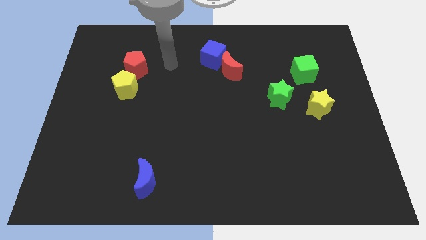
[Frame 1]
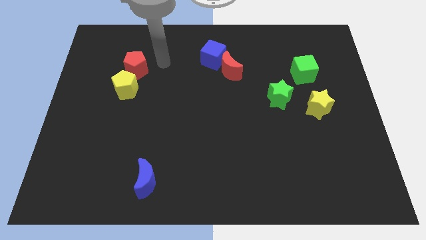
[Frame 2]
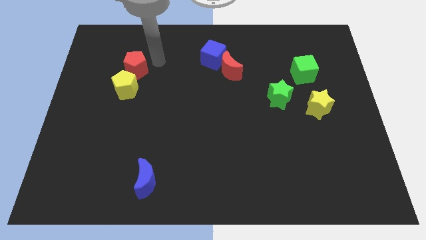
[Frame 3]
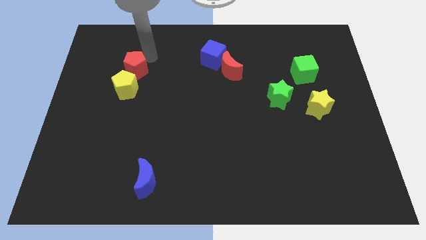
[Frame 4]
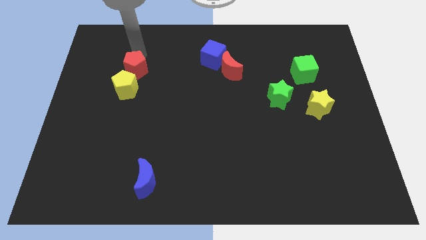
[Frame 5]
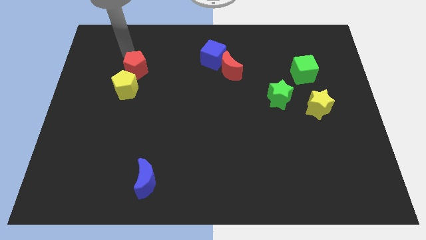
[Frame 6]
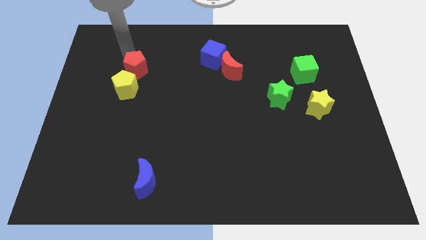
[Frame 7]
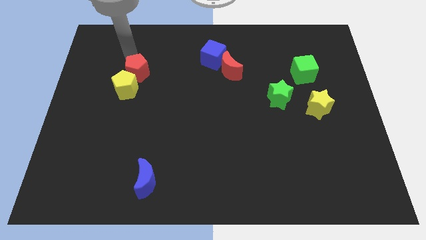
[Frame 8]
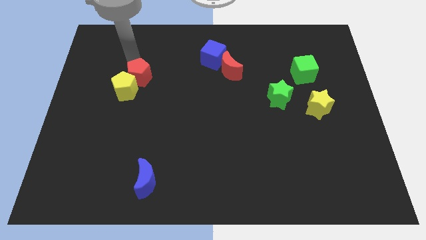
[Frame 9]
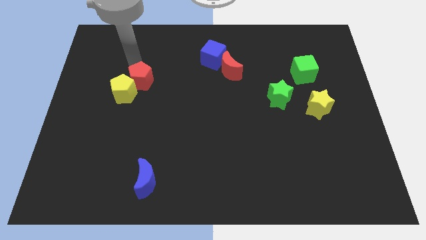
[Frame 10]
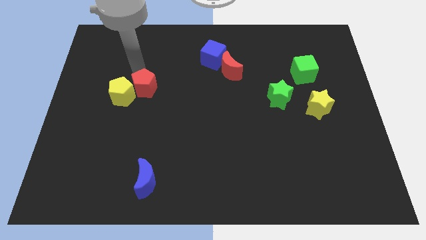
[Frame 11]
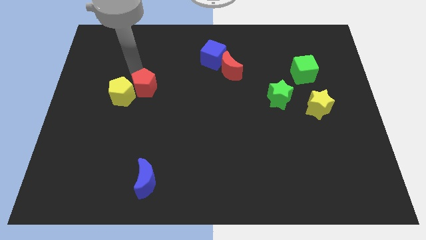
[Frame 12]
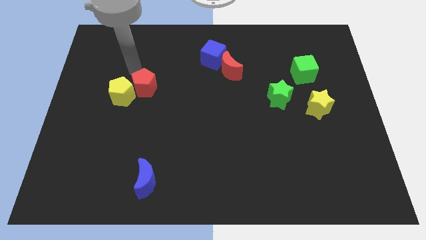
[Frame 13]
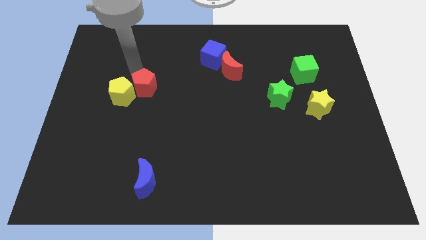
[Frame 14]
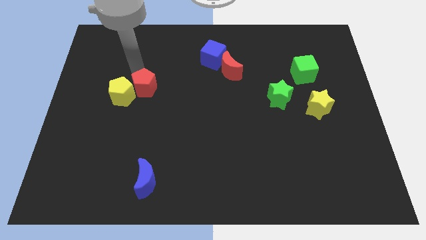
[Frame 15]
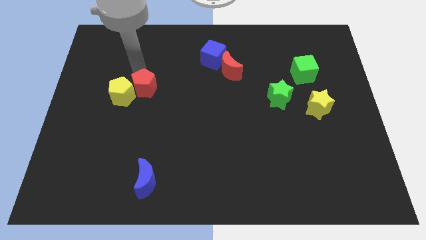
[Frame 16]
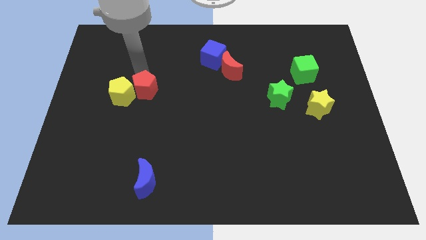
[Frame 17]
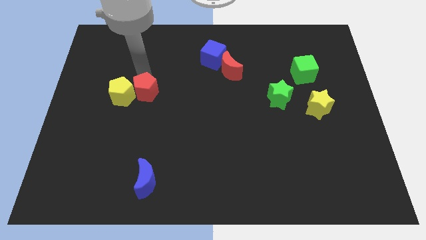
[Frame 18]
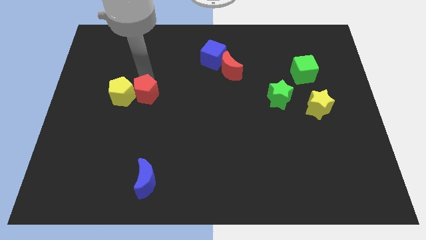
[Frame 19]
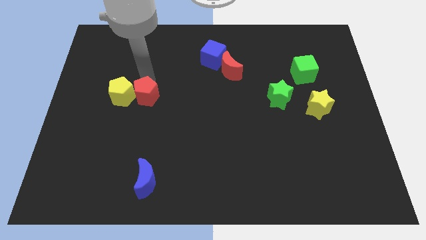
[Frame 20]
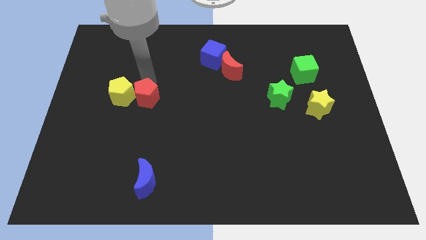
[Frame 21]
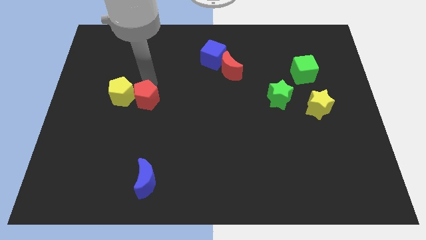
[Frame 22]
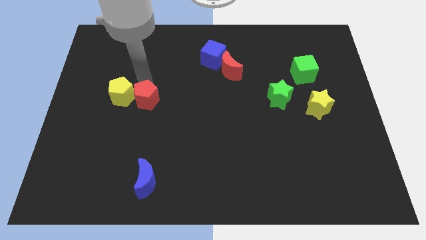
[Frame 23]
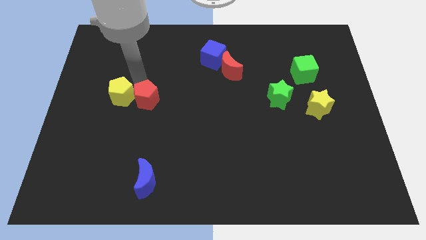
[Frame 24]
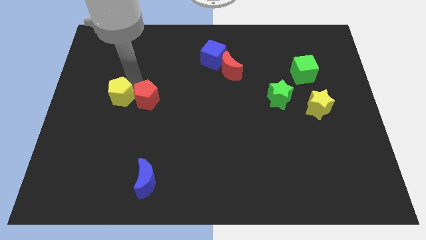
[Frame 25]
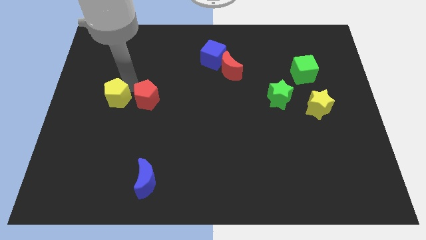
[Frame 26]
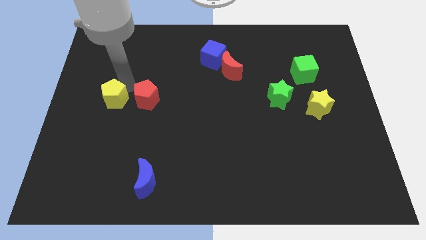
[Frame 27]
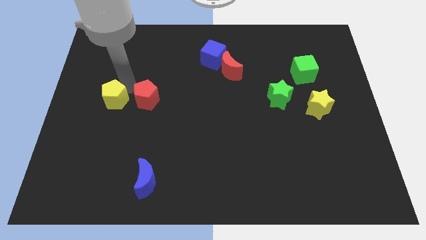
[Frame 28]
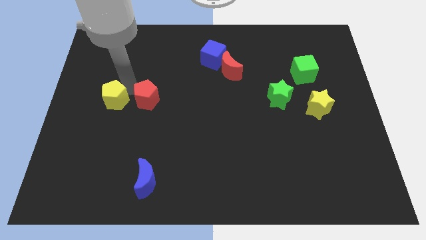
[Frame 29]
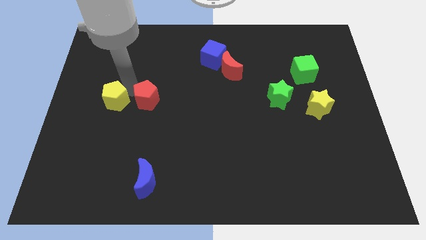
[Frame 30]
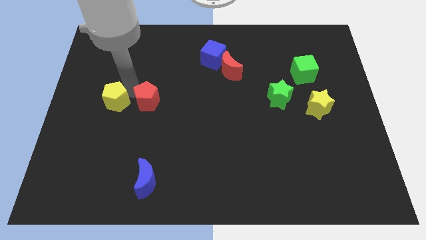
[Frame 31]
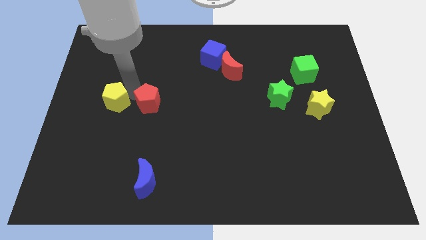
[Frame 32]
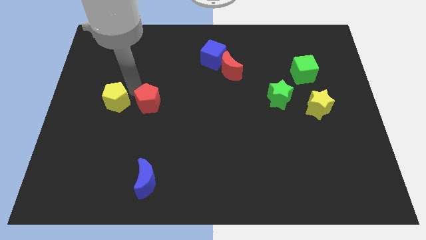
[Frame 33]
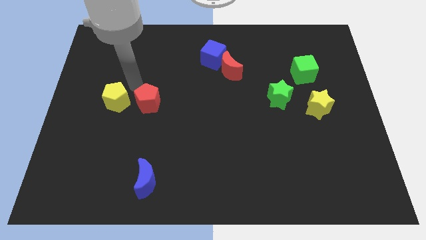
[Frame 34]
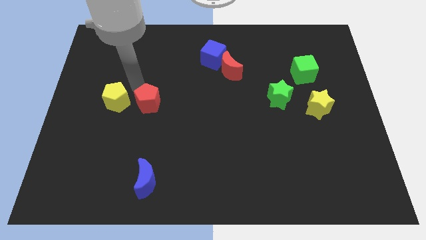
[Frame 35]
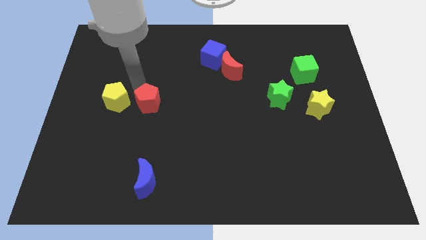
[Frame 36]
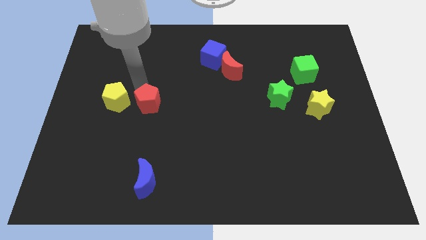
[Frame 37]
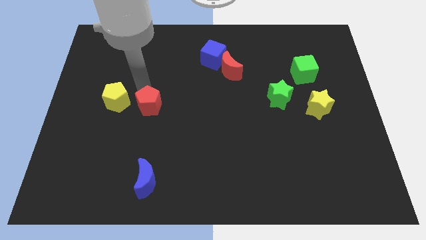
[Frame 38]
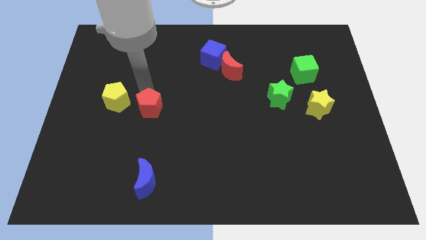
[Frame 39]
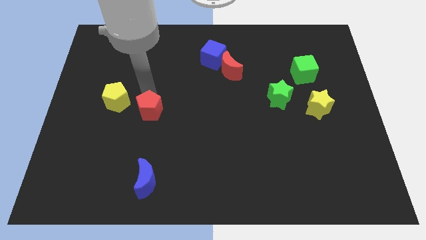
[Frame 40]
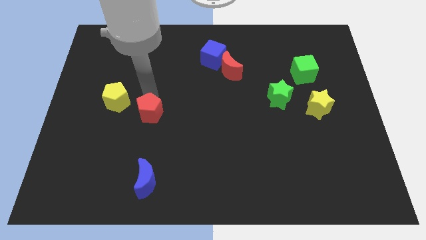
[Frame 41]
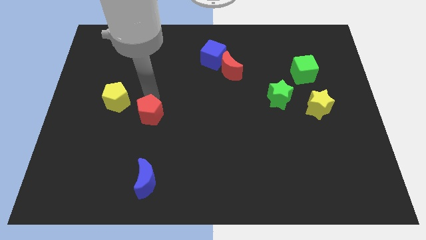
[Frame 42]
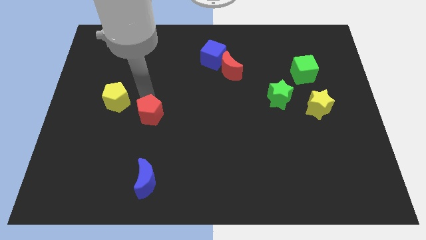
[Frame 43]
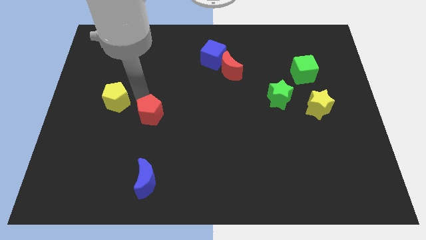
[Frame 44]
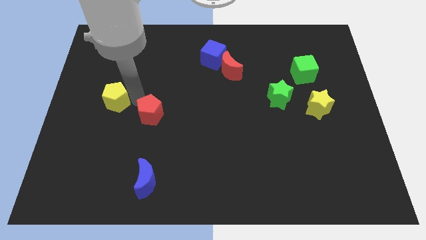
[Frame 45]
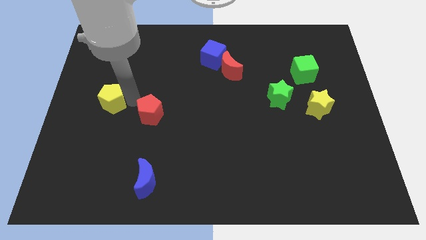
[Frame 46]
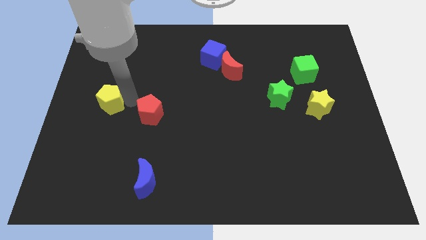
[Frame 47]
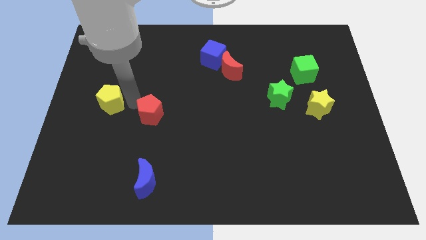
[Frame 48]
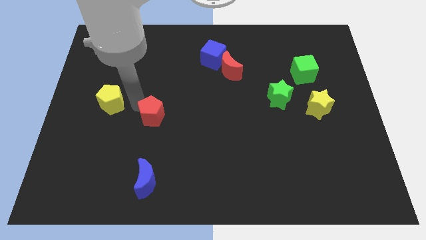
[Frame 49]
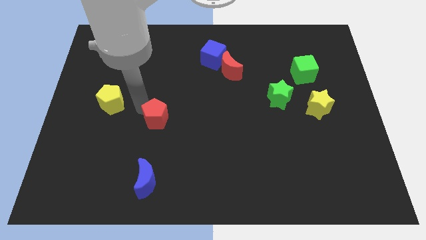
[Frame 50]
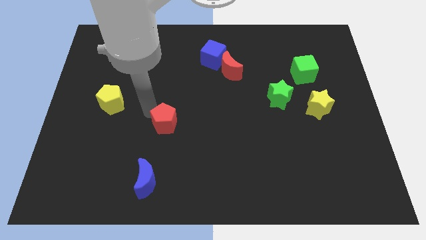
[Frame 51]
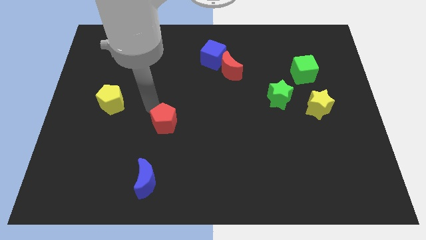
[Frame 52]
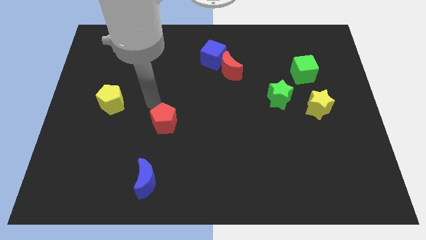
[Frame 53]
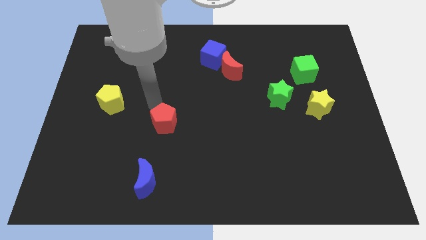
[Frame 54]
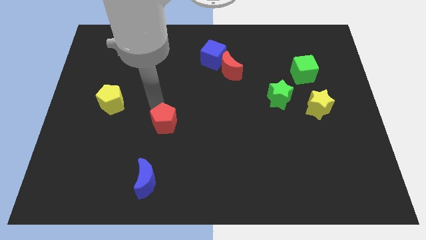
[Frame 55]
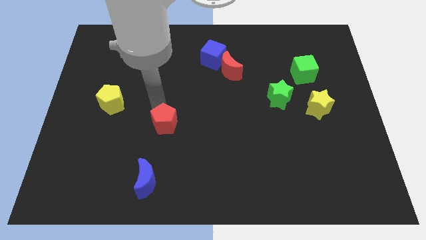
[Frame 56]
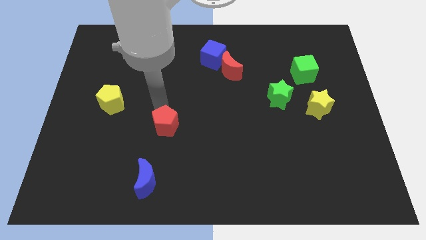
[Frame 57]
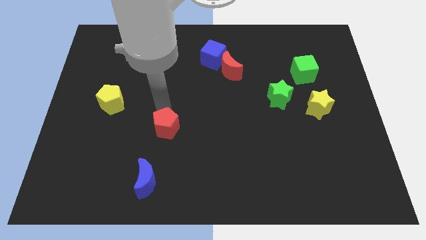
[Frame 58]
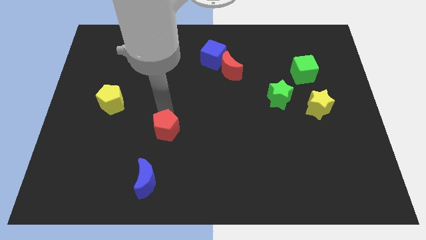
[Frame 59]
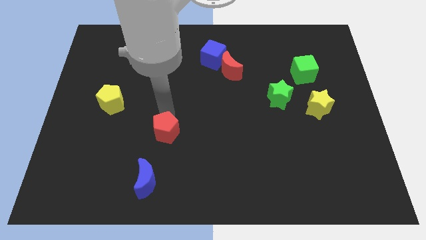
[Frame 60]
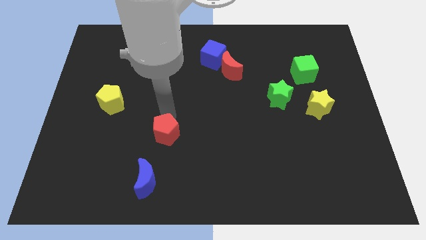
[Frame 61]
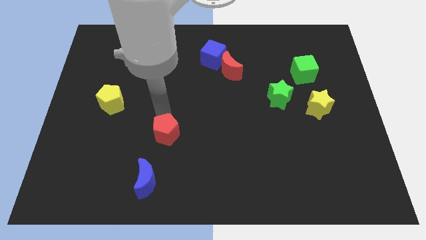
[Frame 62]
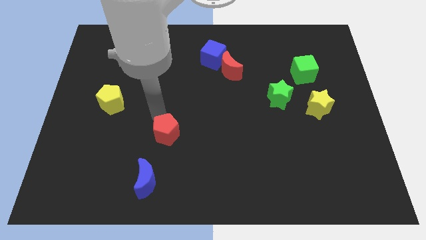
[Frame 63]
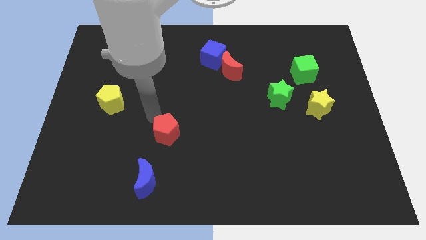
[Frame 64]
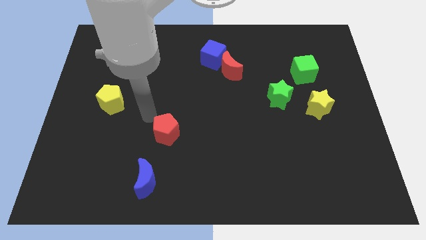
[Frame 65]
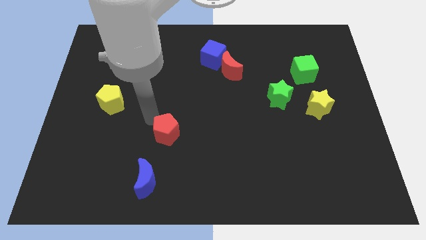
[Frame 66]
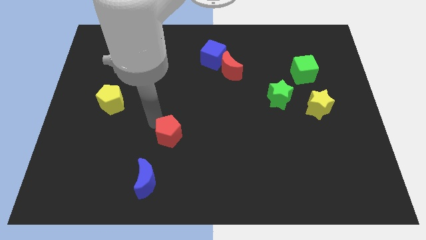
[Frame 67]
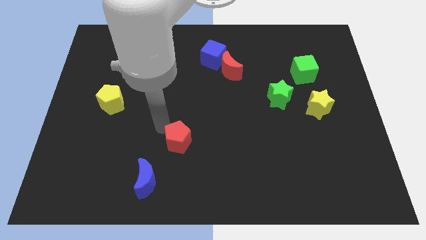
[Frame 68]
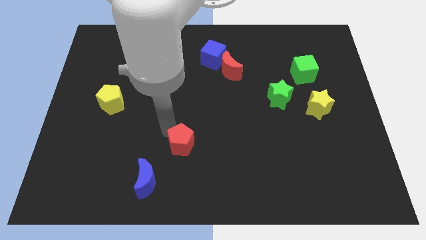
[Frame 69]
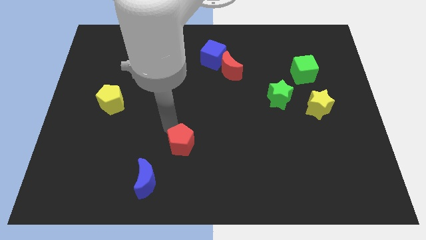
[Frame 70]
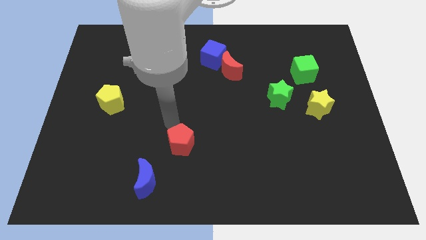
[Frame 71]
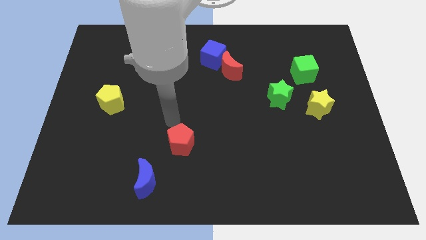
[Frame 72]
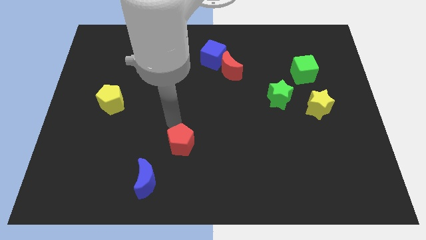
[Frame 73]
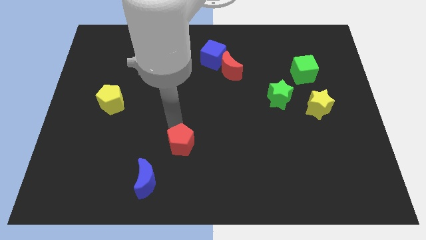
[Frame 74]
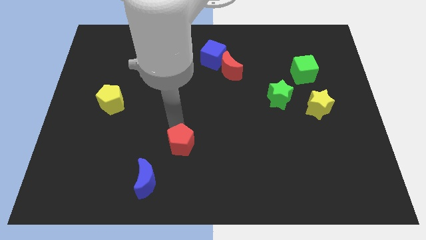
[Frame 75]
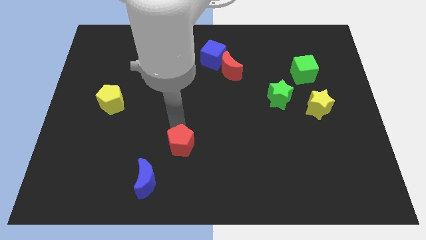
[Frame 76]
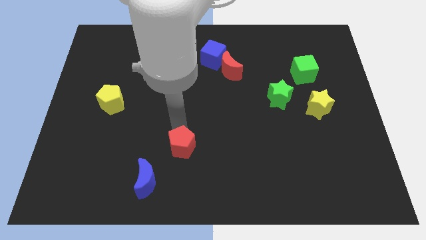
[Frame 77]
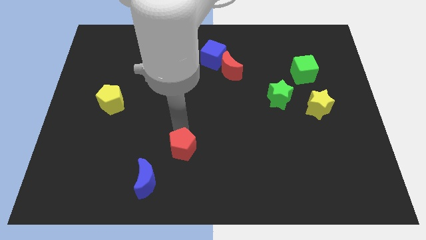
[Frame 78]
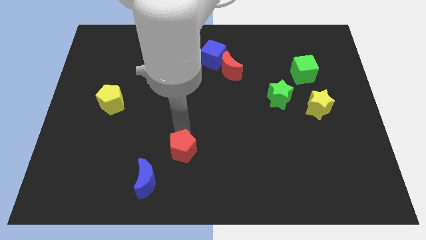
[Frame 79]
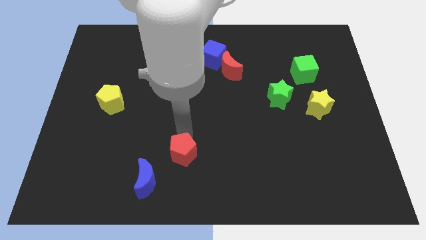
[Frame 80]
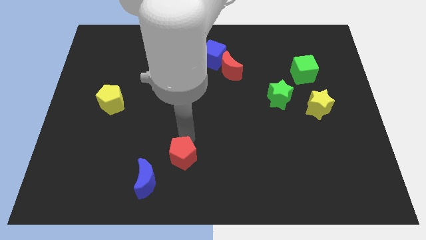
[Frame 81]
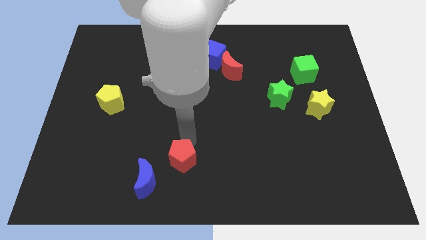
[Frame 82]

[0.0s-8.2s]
move the red pentagon to the bottom
